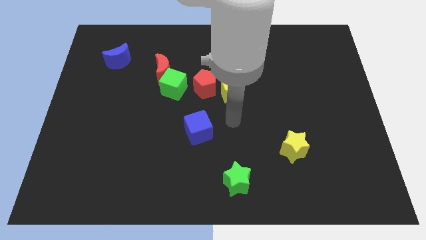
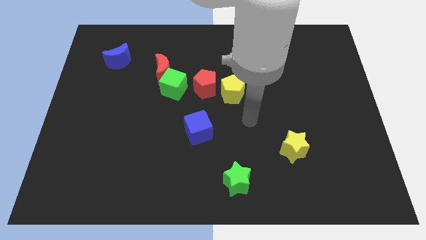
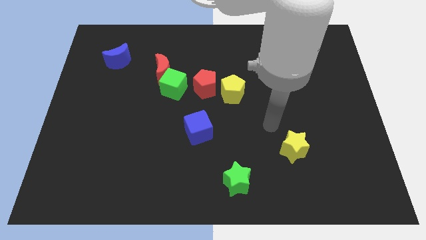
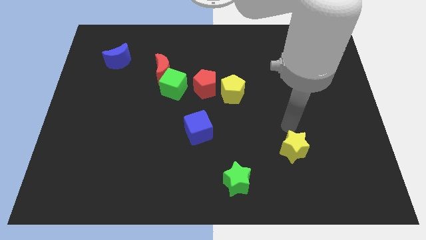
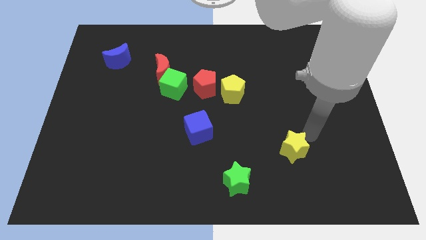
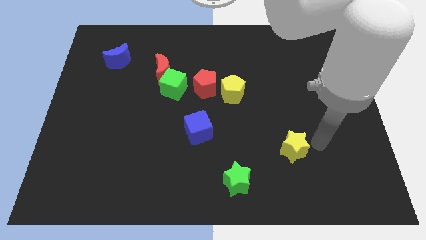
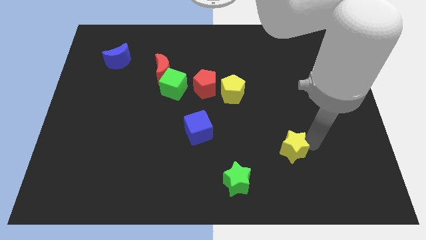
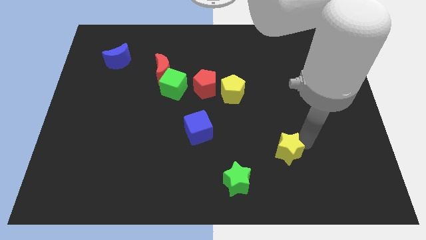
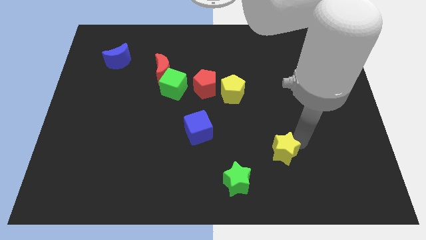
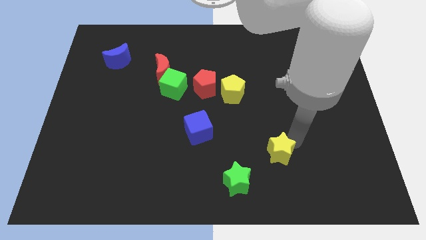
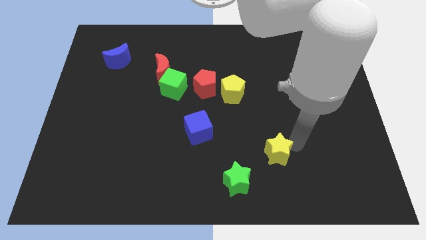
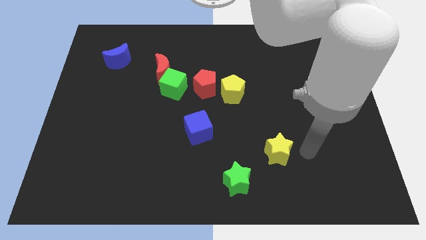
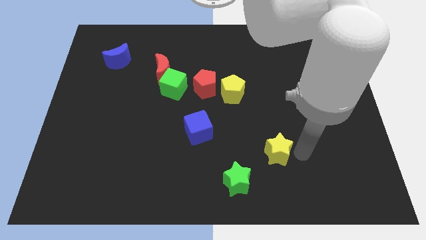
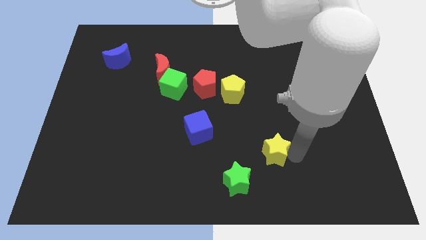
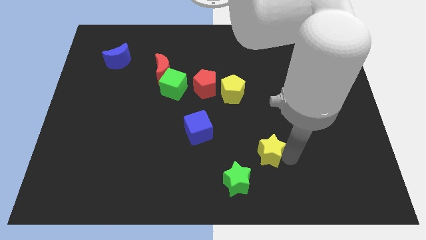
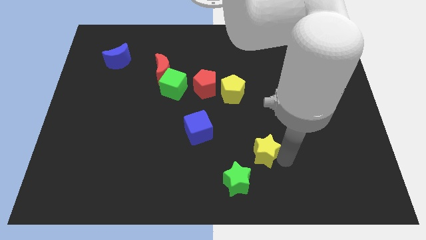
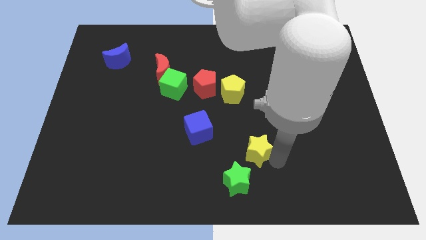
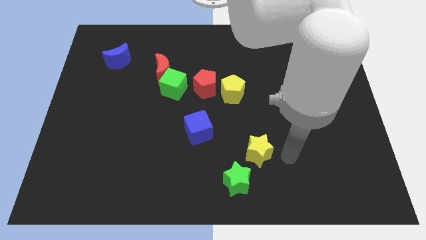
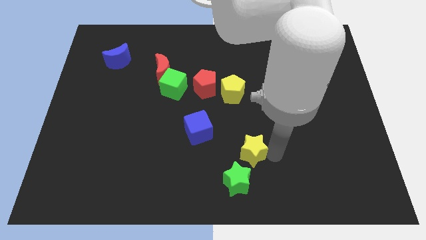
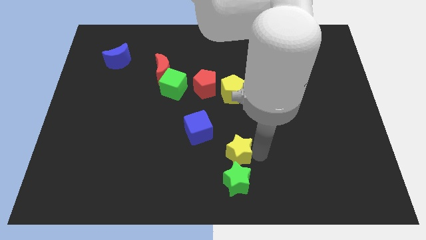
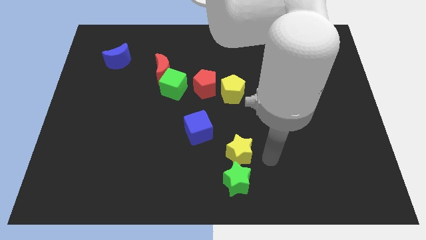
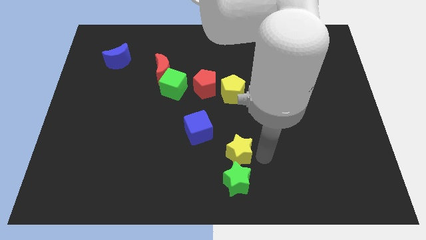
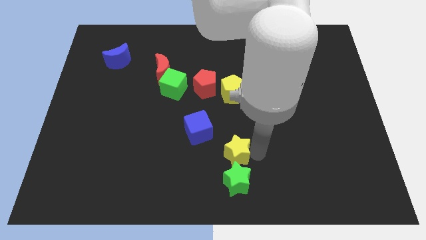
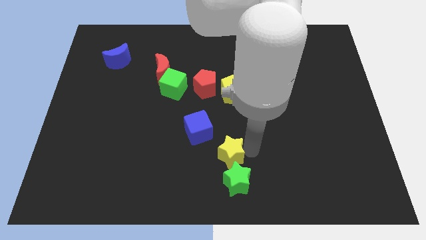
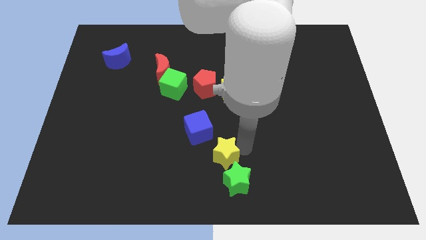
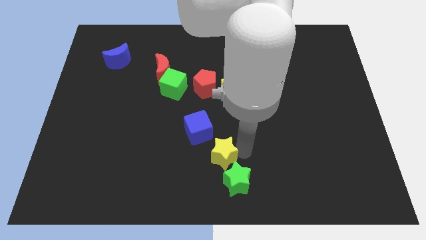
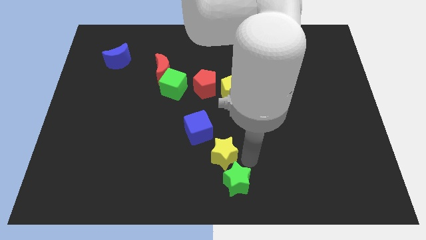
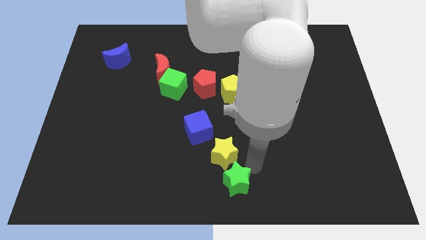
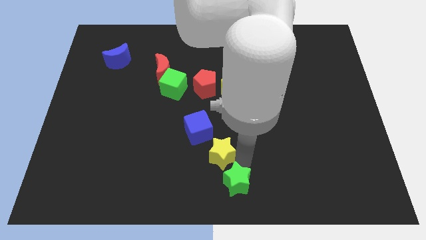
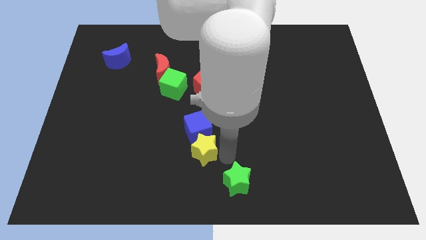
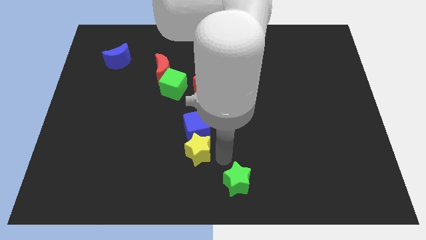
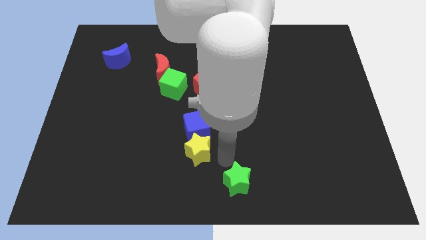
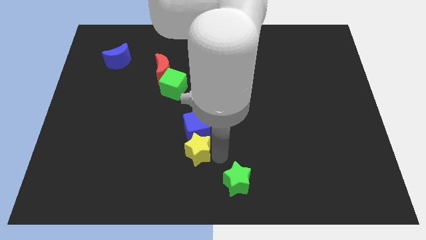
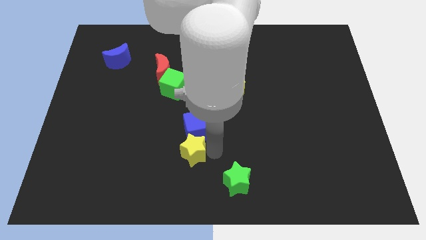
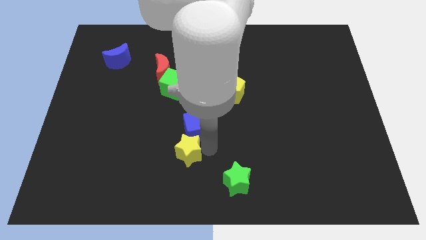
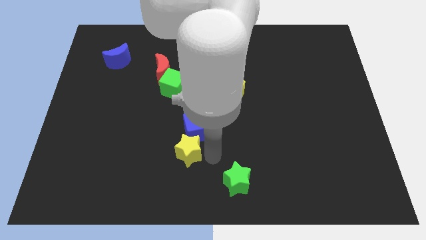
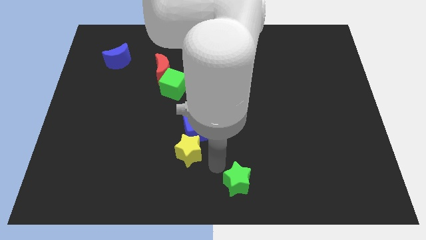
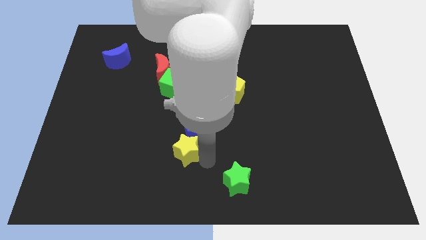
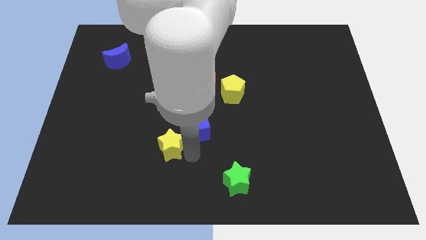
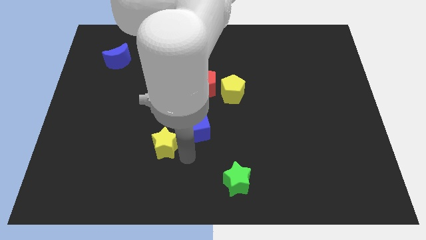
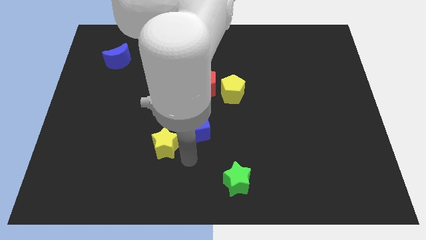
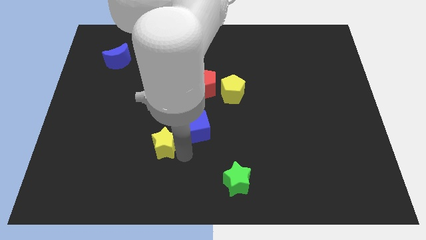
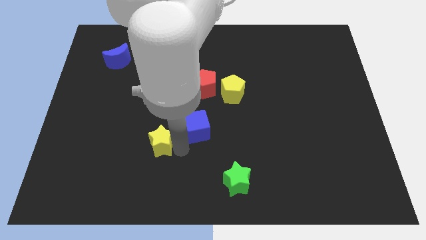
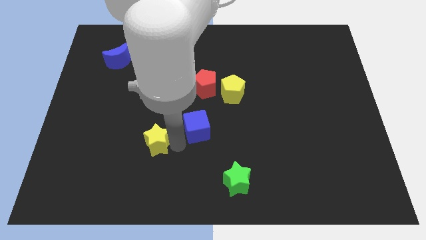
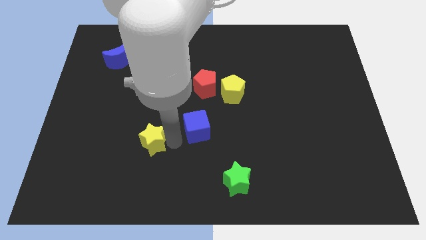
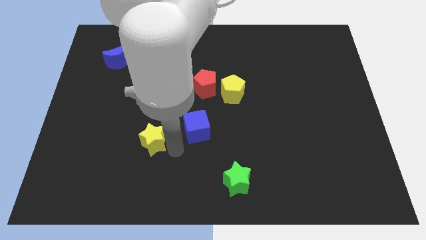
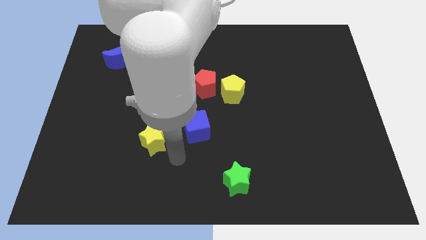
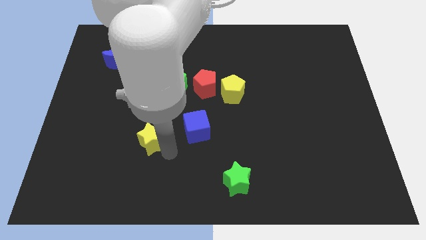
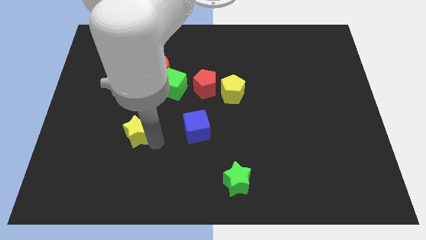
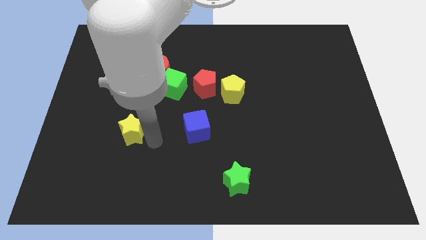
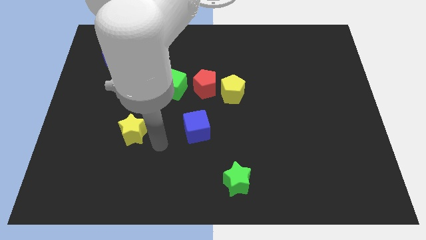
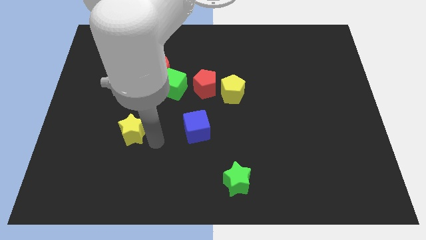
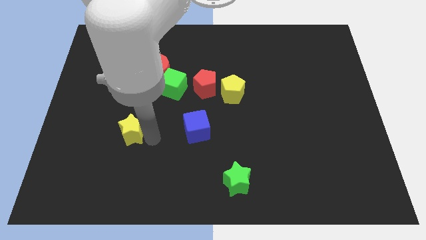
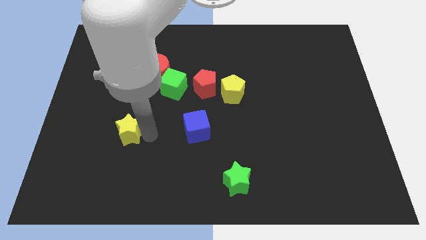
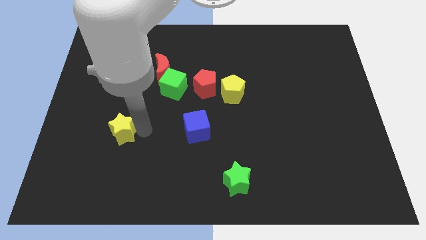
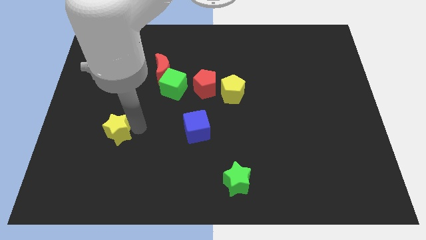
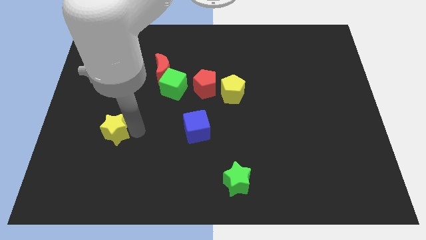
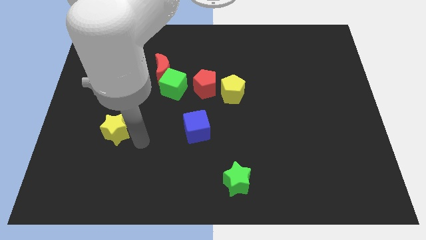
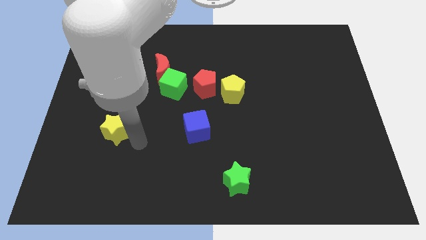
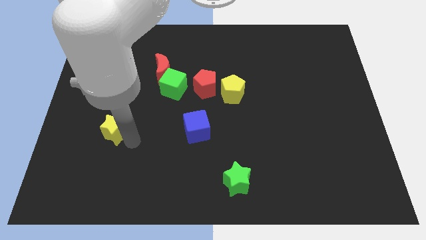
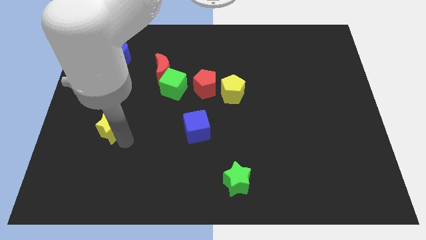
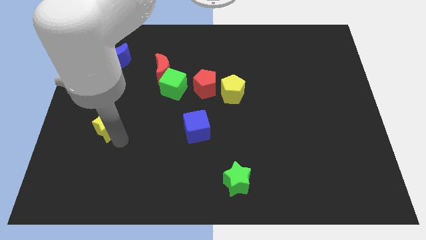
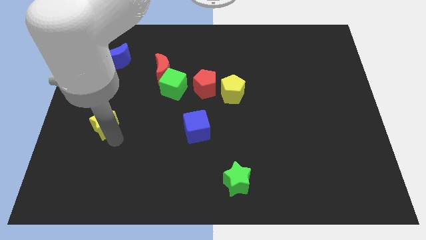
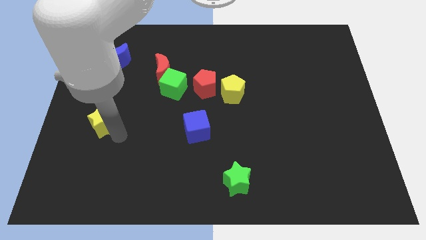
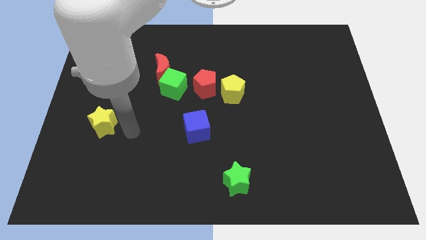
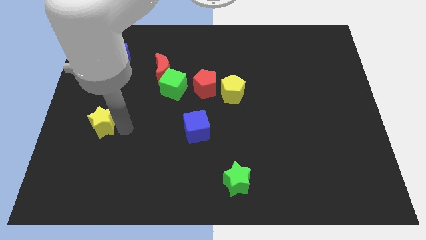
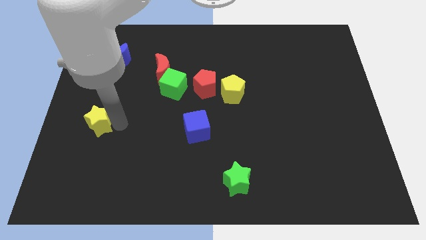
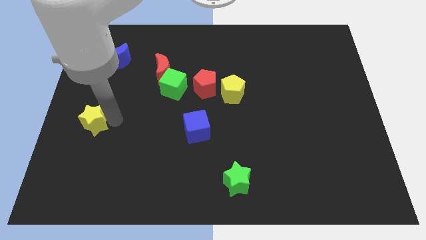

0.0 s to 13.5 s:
slide the yellow star to the left side
